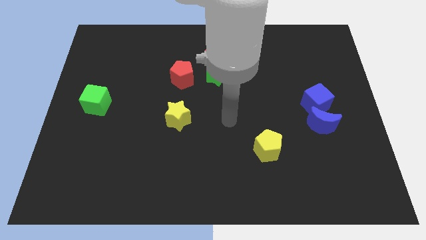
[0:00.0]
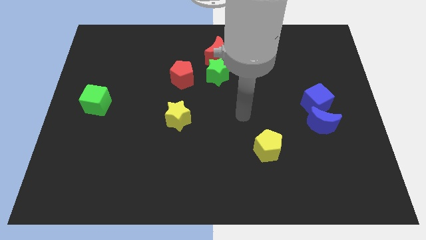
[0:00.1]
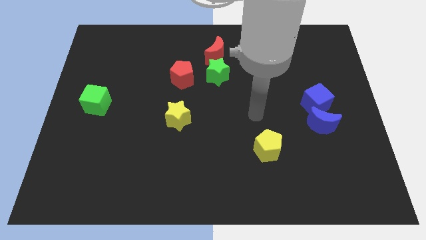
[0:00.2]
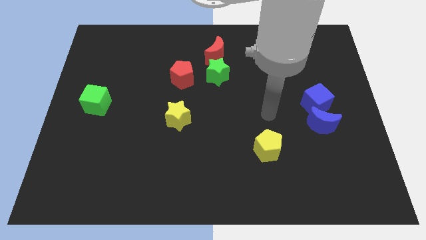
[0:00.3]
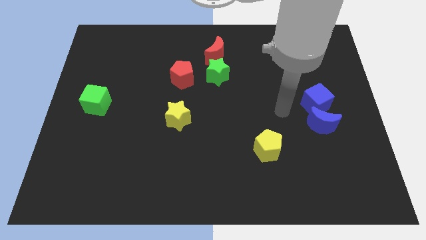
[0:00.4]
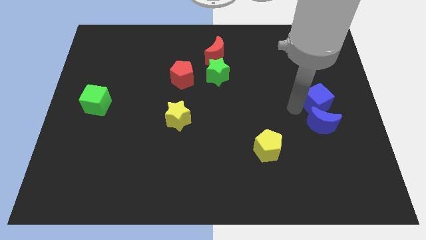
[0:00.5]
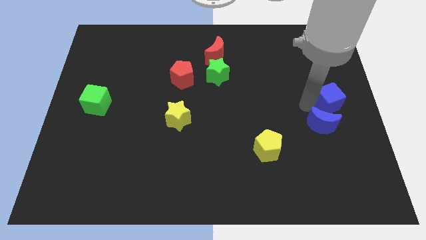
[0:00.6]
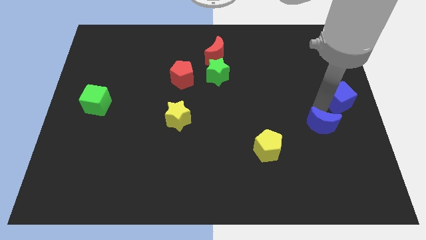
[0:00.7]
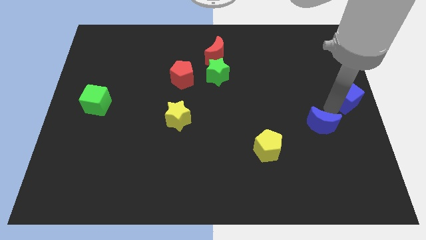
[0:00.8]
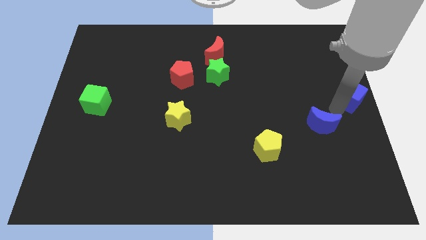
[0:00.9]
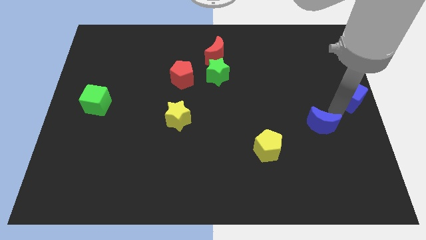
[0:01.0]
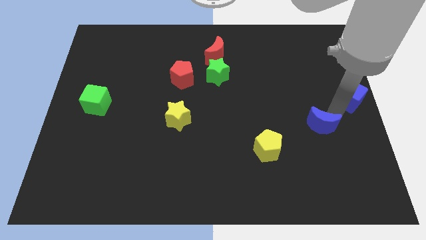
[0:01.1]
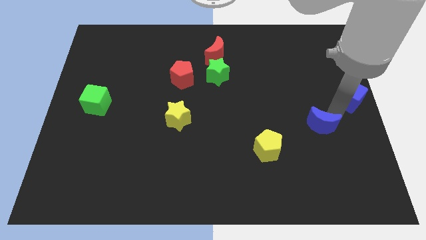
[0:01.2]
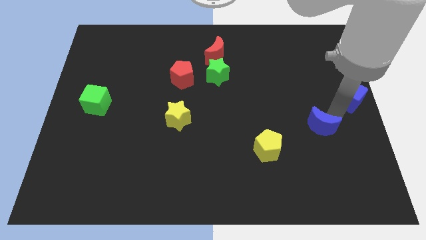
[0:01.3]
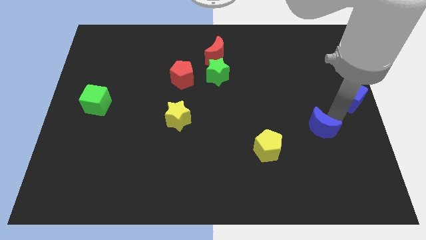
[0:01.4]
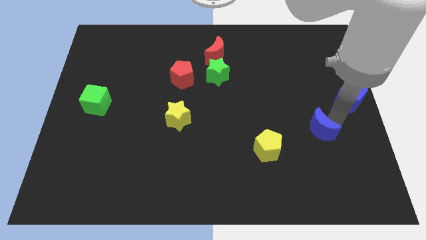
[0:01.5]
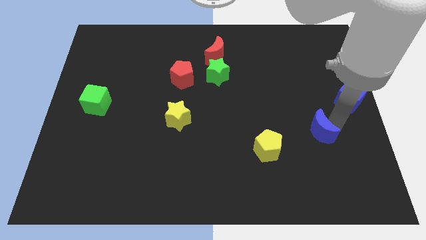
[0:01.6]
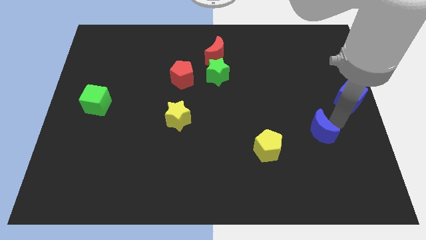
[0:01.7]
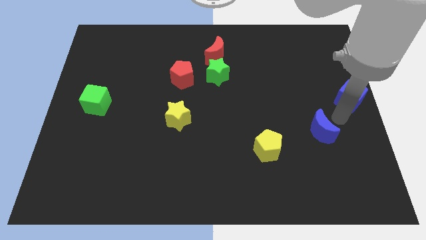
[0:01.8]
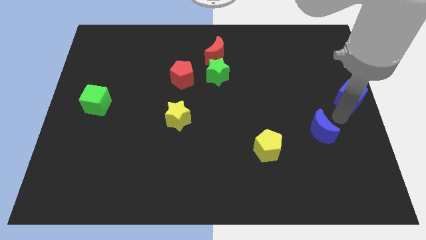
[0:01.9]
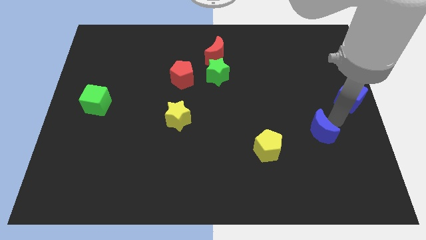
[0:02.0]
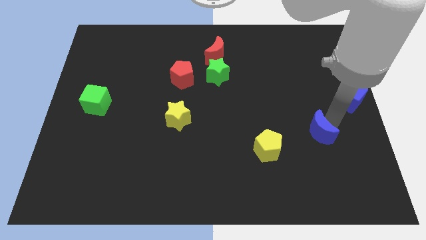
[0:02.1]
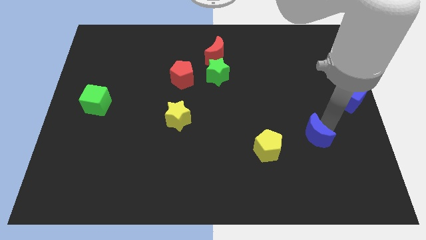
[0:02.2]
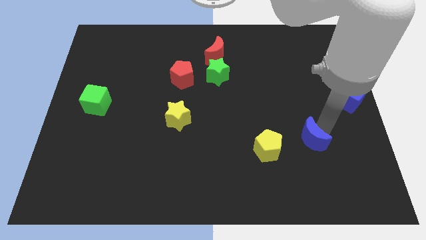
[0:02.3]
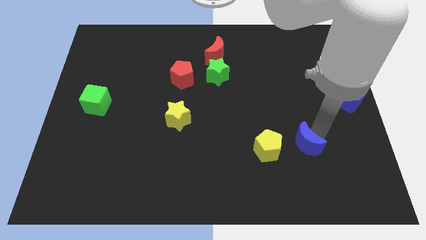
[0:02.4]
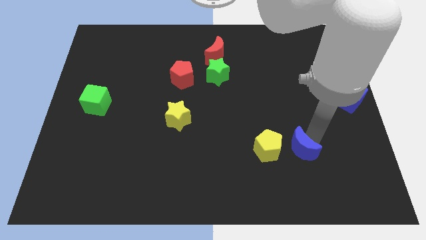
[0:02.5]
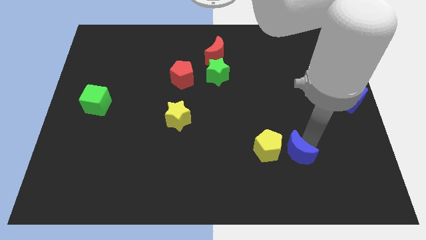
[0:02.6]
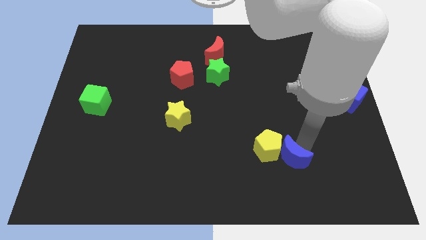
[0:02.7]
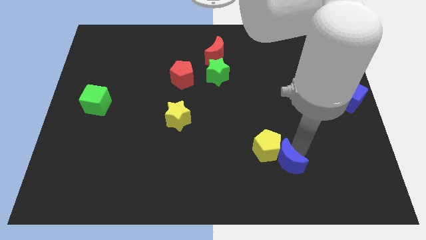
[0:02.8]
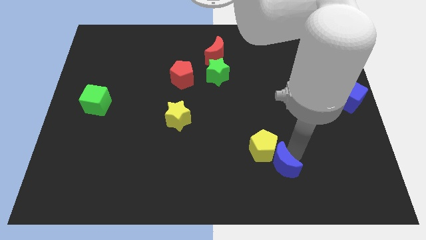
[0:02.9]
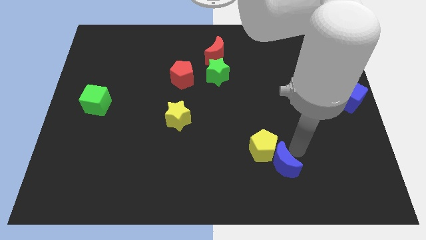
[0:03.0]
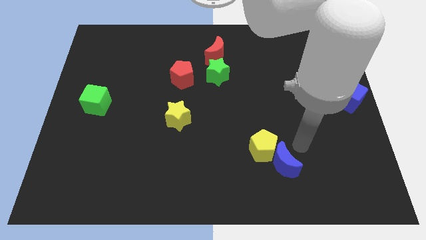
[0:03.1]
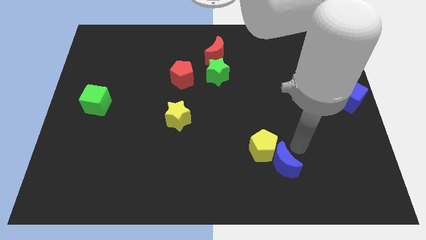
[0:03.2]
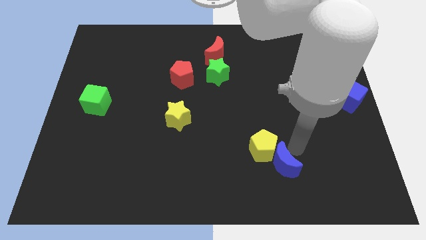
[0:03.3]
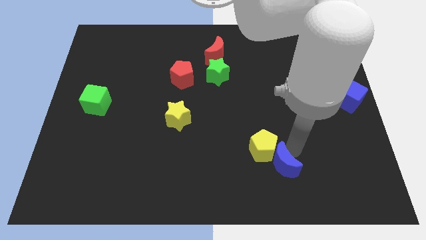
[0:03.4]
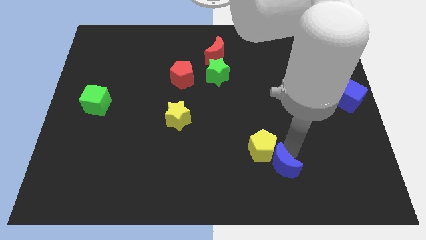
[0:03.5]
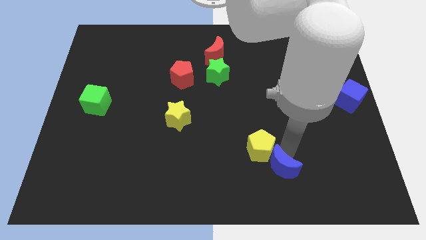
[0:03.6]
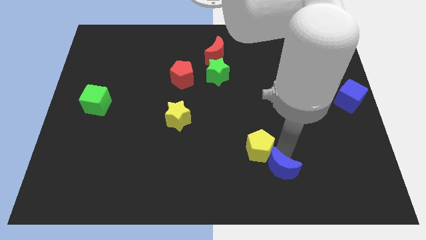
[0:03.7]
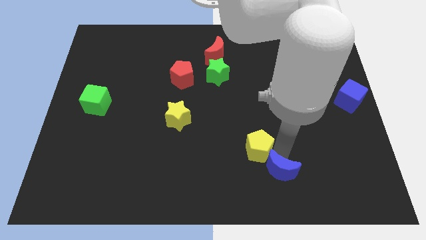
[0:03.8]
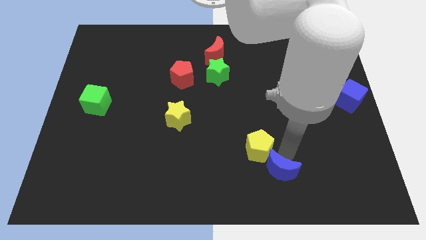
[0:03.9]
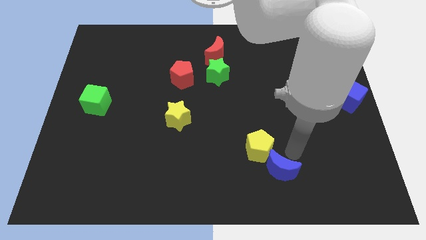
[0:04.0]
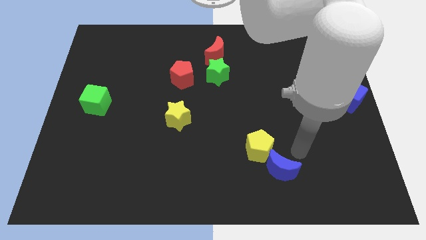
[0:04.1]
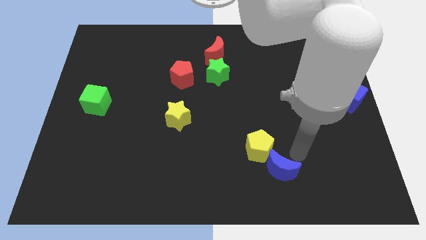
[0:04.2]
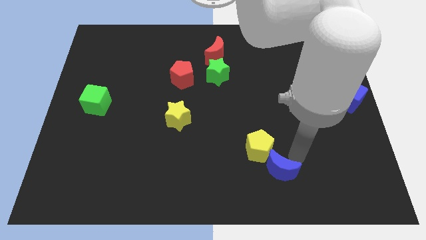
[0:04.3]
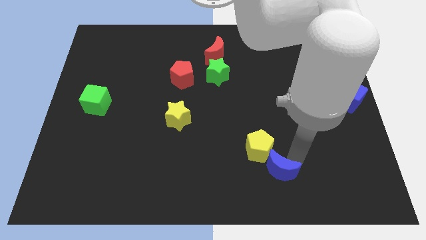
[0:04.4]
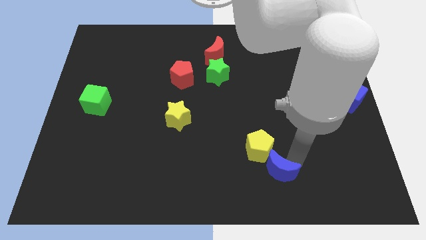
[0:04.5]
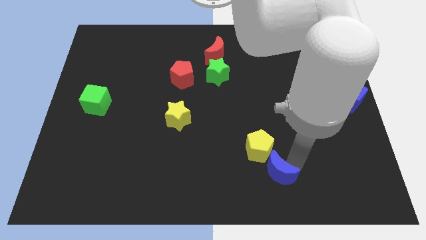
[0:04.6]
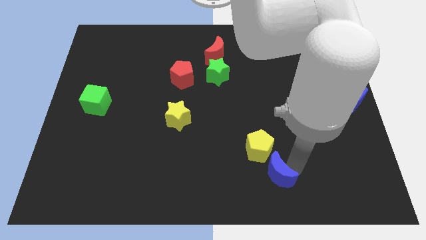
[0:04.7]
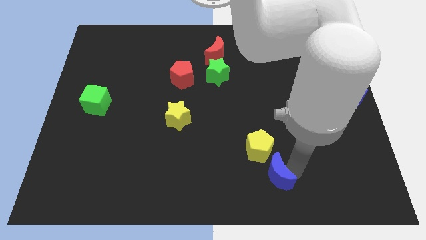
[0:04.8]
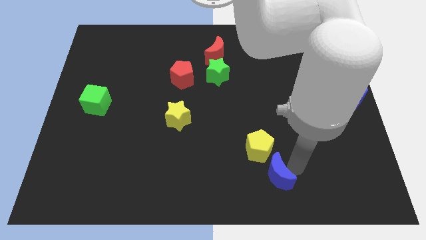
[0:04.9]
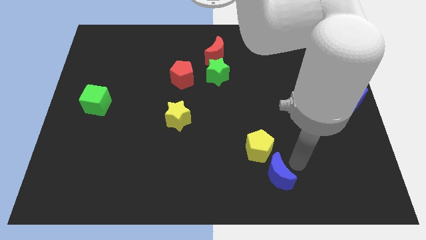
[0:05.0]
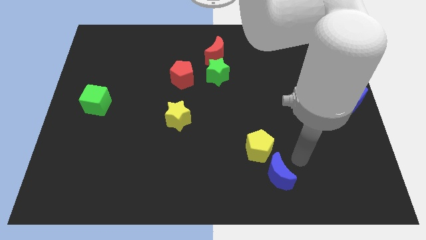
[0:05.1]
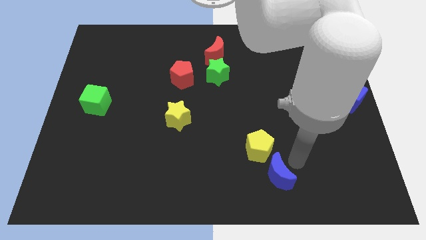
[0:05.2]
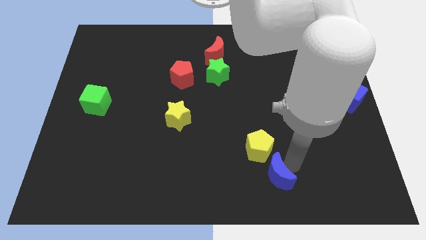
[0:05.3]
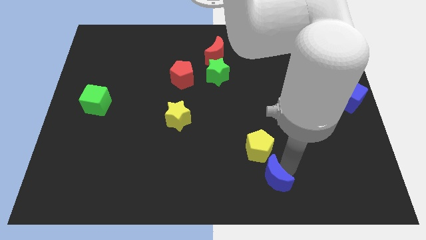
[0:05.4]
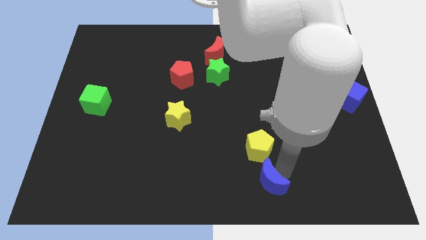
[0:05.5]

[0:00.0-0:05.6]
push the blue moon to the bottom side

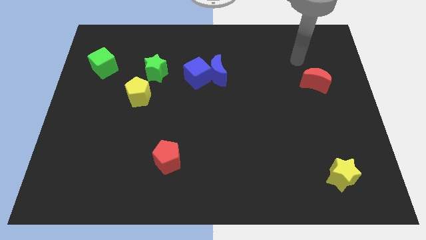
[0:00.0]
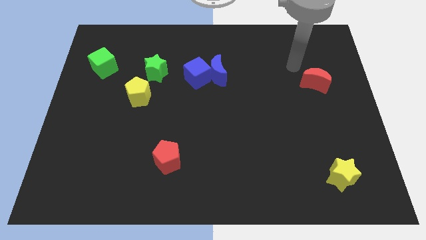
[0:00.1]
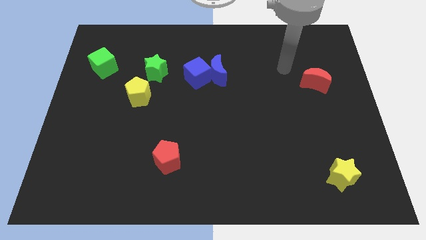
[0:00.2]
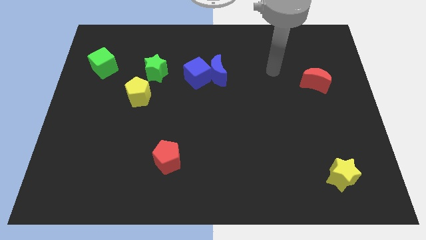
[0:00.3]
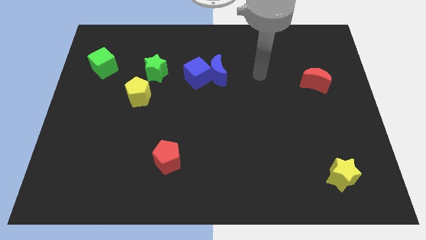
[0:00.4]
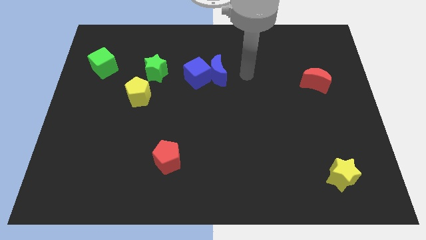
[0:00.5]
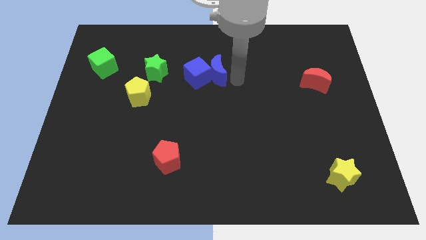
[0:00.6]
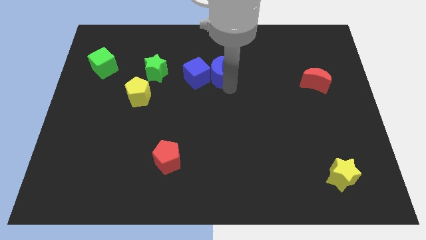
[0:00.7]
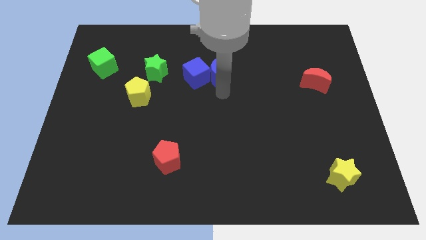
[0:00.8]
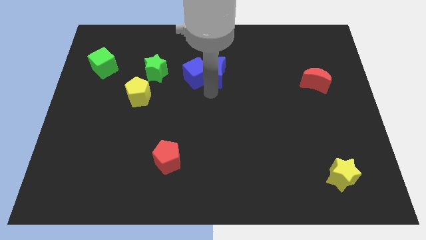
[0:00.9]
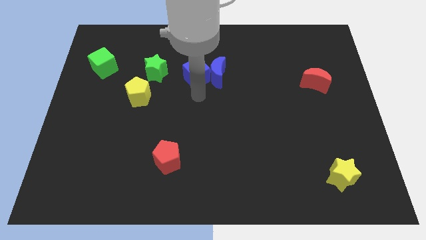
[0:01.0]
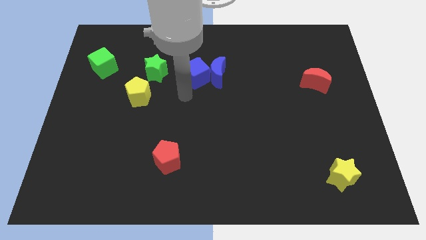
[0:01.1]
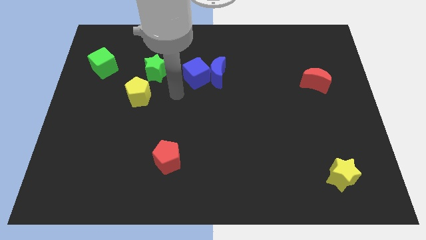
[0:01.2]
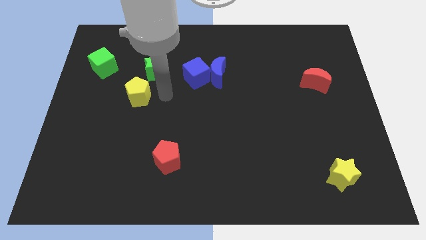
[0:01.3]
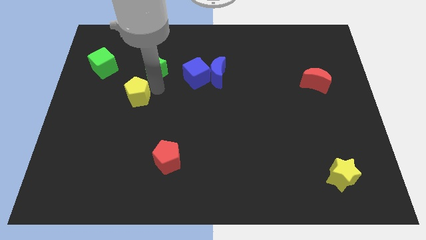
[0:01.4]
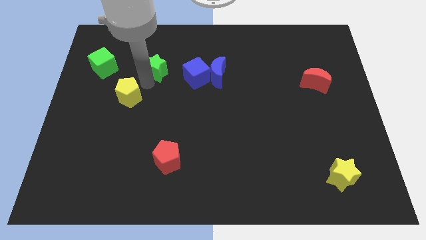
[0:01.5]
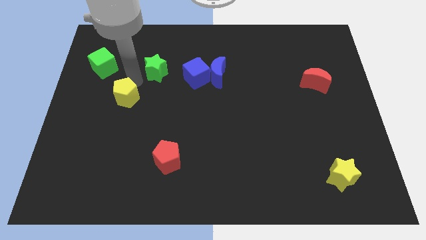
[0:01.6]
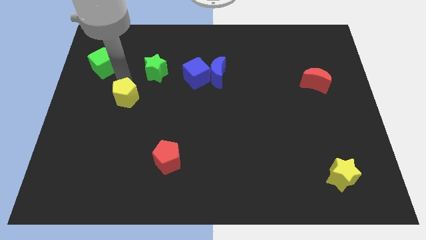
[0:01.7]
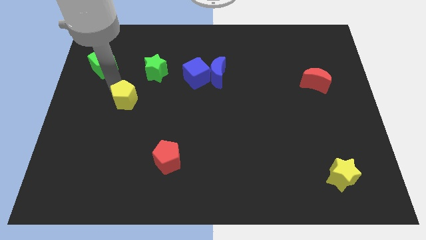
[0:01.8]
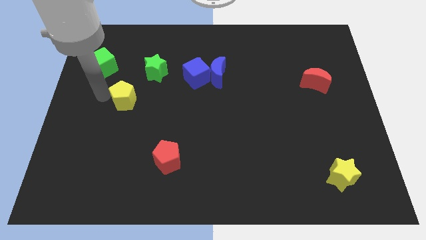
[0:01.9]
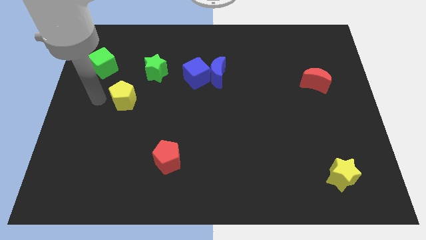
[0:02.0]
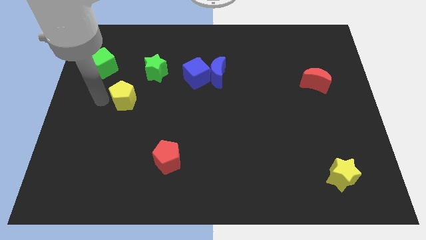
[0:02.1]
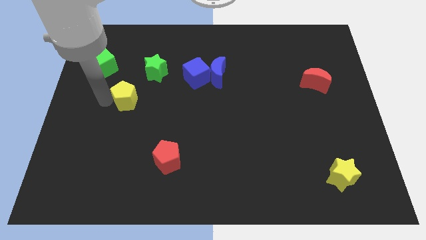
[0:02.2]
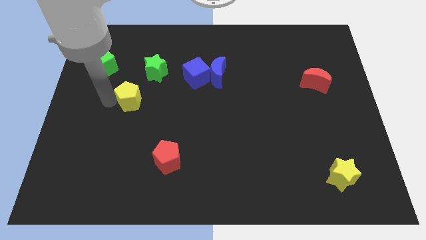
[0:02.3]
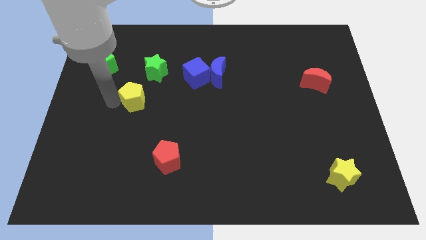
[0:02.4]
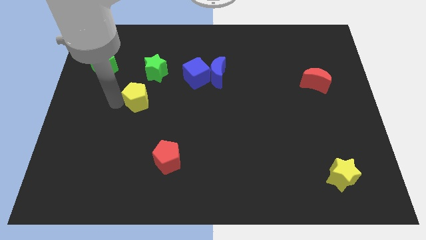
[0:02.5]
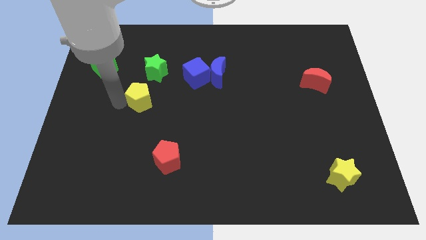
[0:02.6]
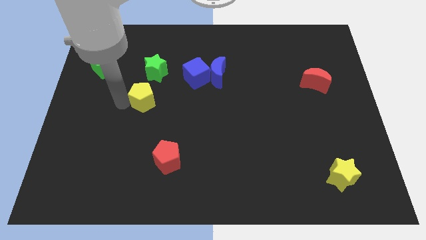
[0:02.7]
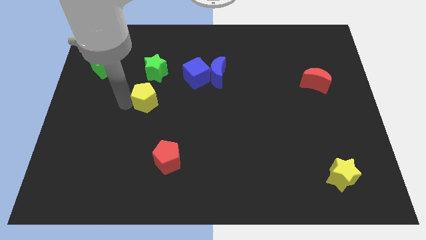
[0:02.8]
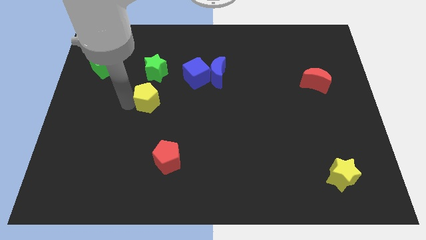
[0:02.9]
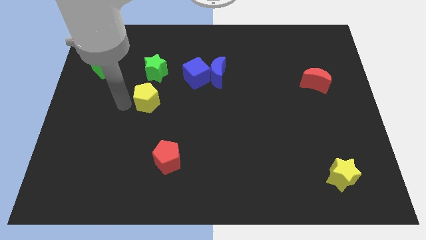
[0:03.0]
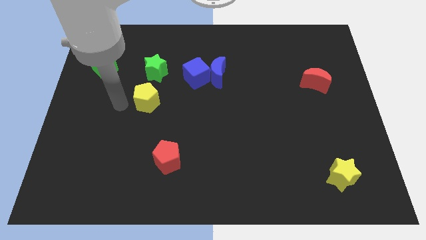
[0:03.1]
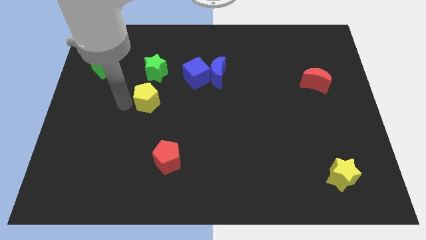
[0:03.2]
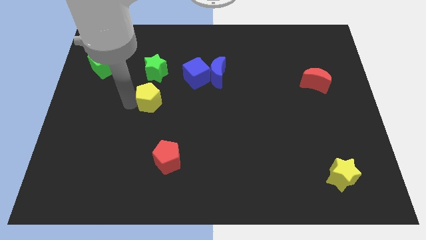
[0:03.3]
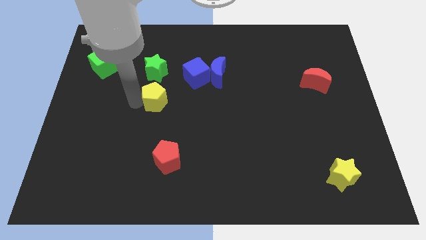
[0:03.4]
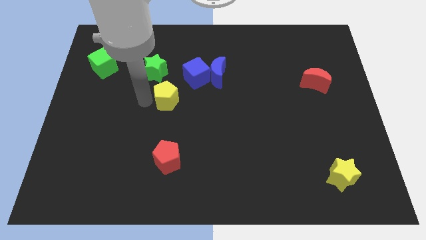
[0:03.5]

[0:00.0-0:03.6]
push the yellow pentagon to the middle of the board
